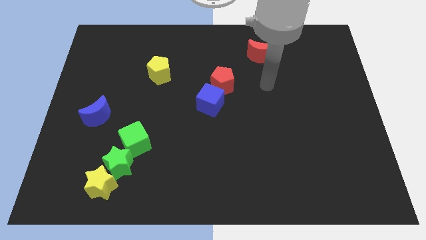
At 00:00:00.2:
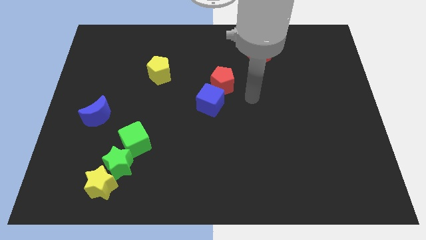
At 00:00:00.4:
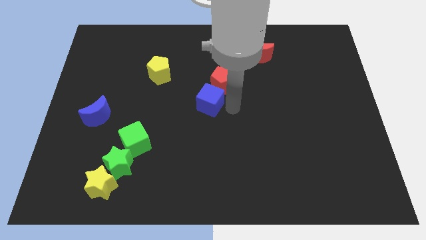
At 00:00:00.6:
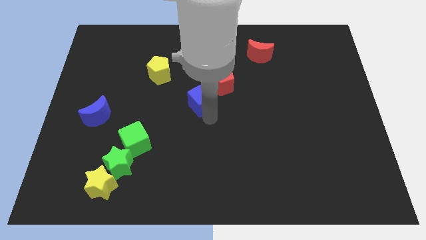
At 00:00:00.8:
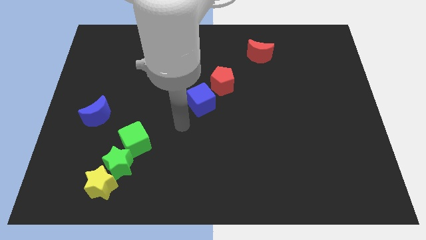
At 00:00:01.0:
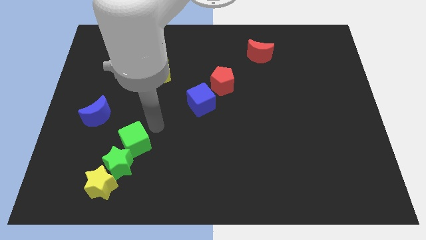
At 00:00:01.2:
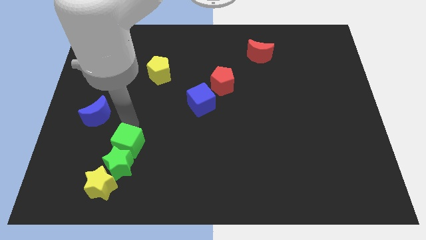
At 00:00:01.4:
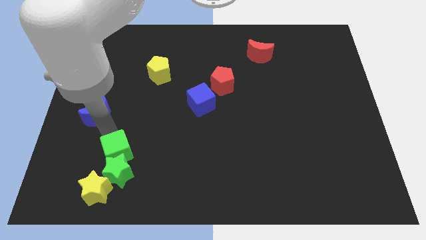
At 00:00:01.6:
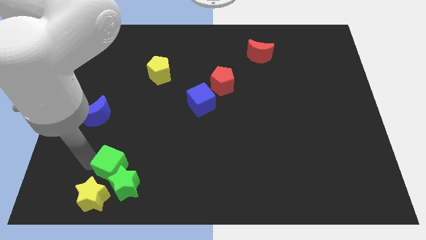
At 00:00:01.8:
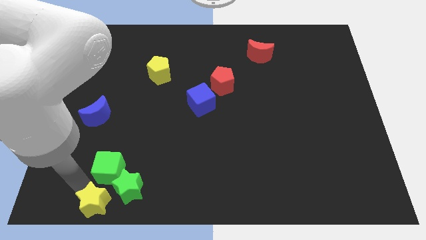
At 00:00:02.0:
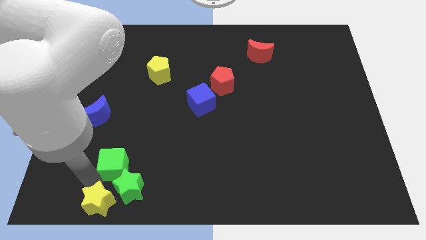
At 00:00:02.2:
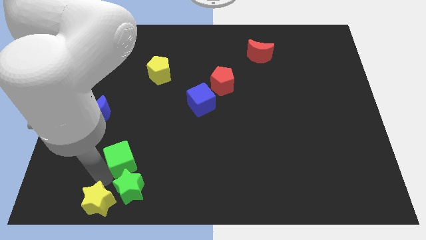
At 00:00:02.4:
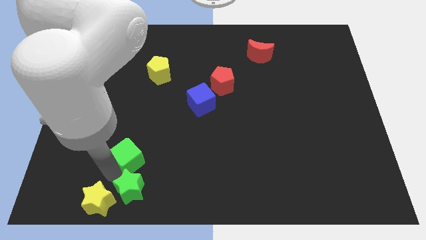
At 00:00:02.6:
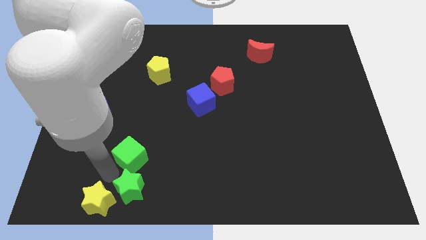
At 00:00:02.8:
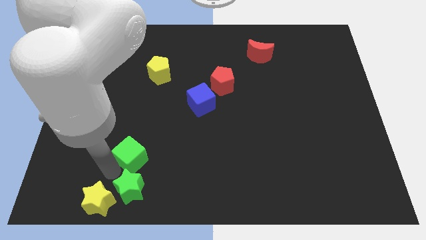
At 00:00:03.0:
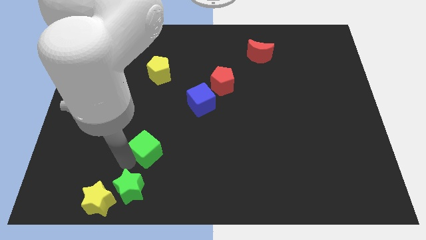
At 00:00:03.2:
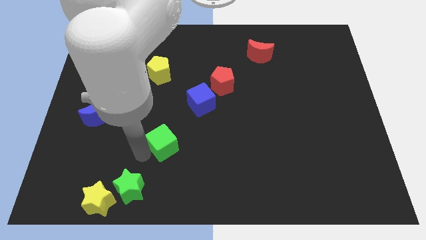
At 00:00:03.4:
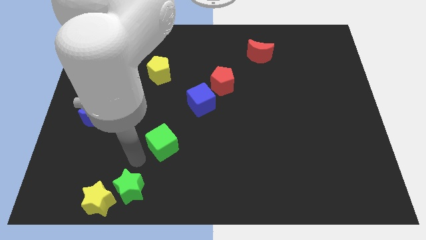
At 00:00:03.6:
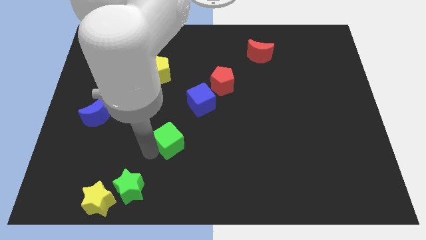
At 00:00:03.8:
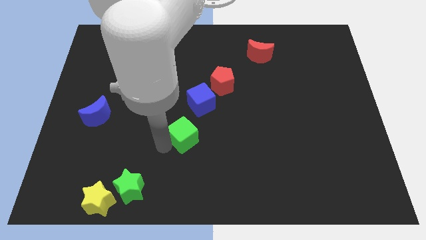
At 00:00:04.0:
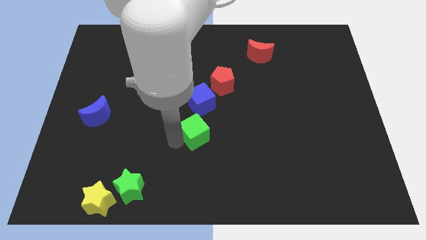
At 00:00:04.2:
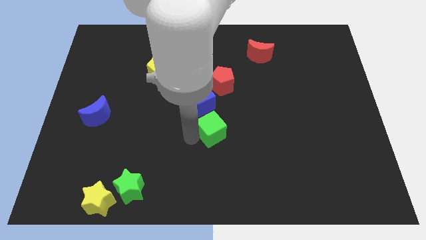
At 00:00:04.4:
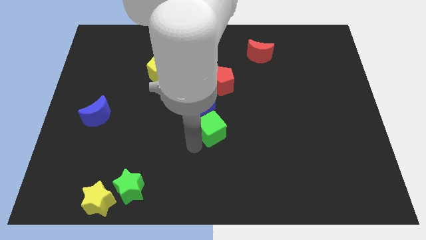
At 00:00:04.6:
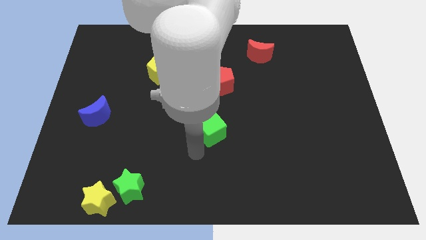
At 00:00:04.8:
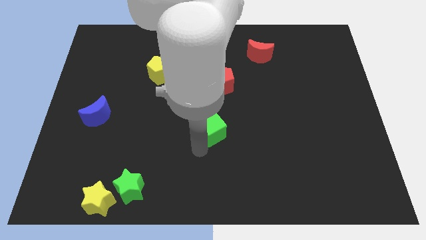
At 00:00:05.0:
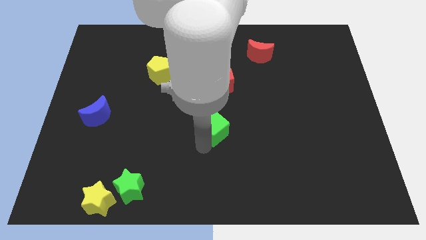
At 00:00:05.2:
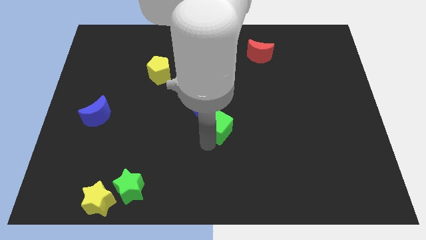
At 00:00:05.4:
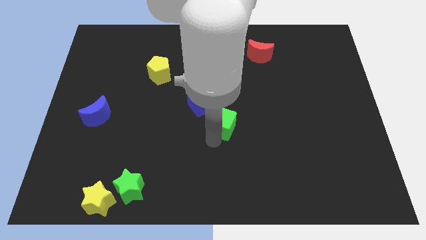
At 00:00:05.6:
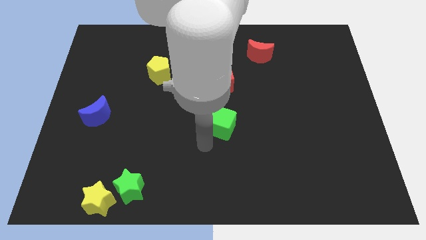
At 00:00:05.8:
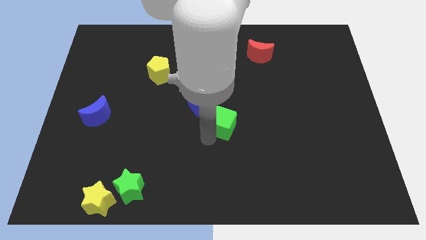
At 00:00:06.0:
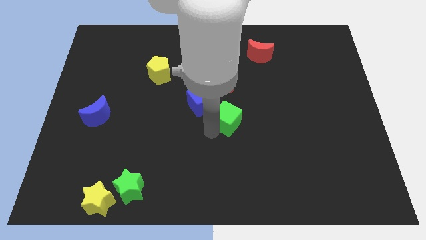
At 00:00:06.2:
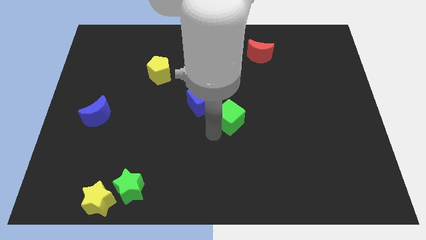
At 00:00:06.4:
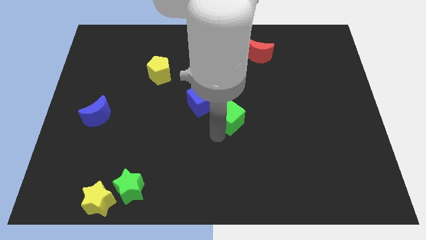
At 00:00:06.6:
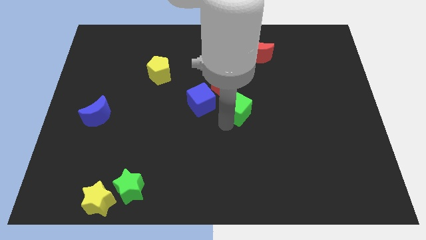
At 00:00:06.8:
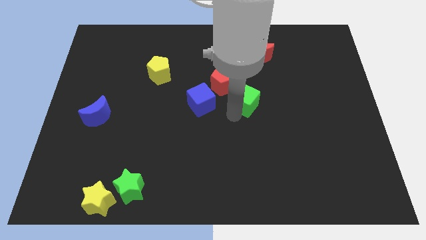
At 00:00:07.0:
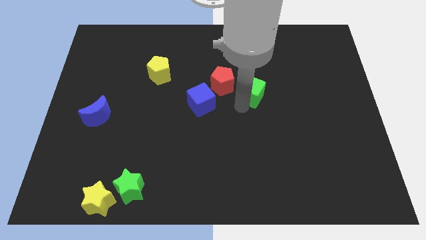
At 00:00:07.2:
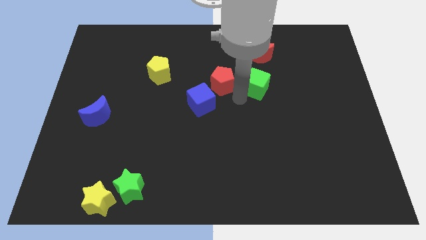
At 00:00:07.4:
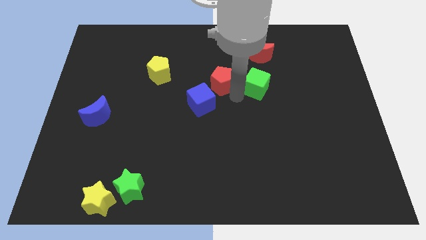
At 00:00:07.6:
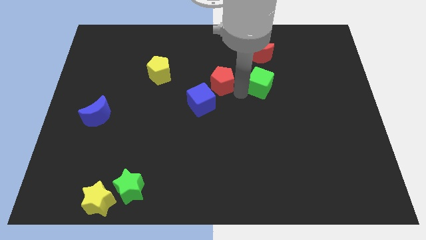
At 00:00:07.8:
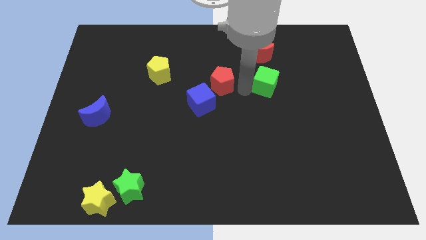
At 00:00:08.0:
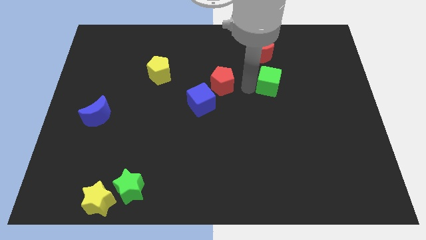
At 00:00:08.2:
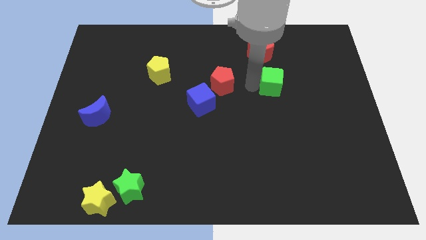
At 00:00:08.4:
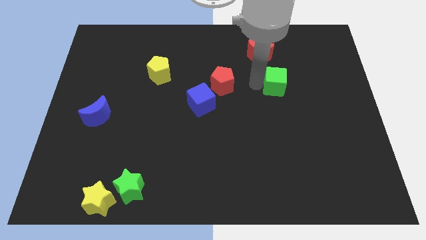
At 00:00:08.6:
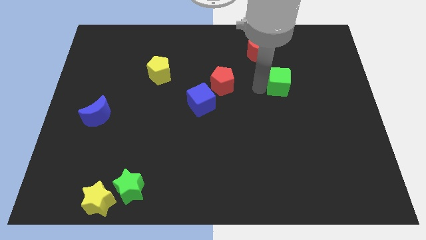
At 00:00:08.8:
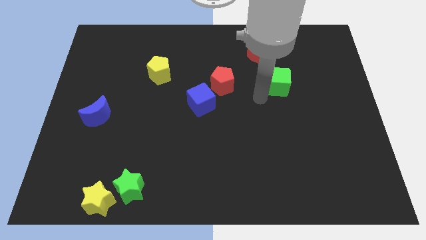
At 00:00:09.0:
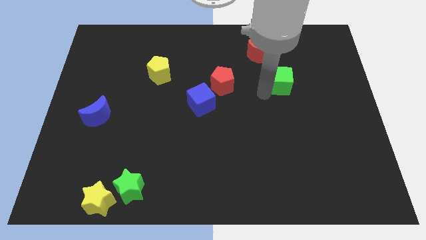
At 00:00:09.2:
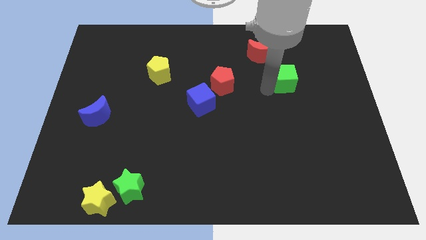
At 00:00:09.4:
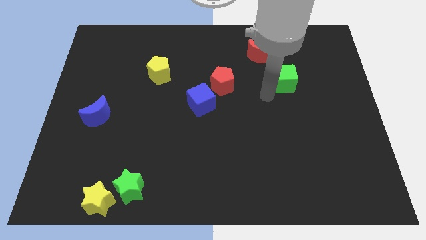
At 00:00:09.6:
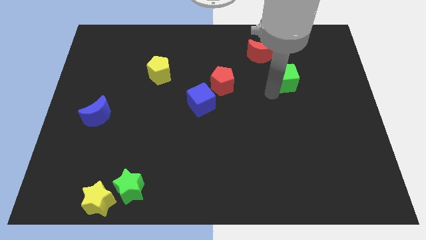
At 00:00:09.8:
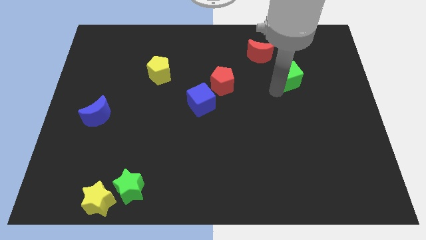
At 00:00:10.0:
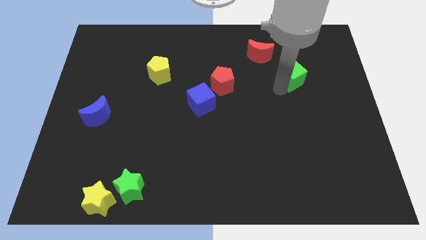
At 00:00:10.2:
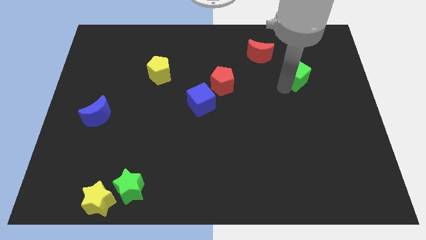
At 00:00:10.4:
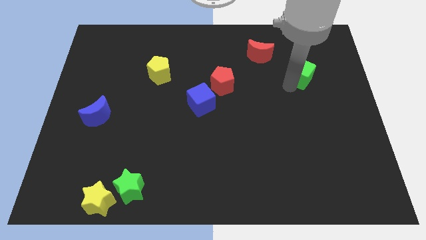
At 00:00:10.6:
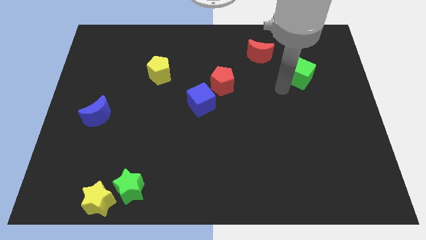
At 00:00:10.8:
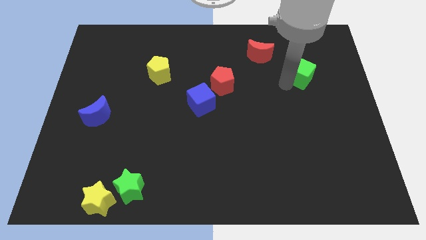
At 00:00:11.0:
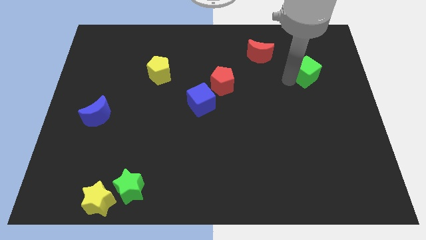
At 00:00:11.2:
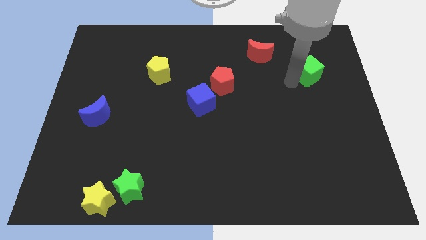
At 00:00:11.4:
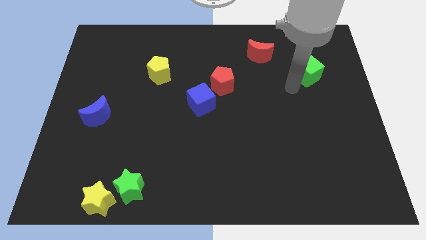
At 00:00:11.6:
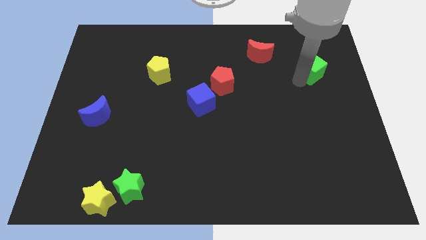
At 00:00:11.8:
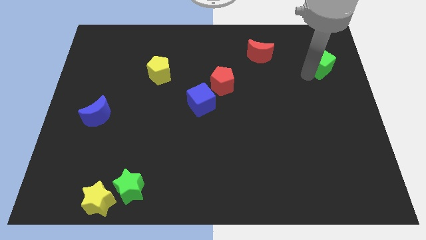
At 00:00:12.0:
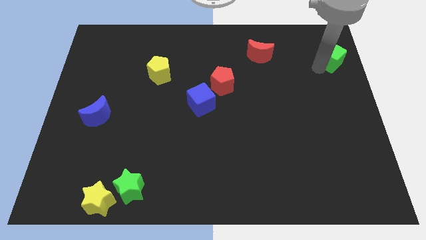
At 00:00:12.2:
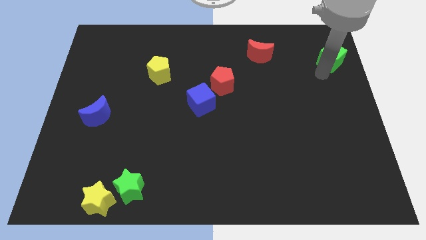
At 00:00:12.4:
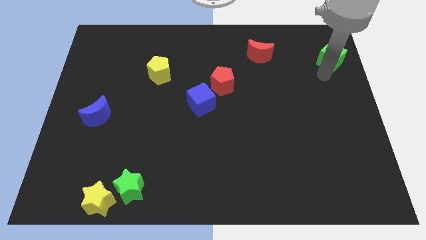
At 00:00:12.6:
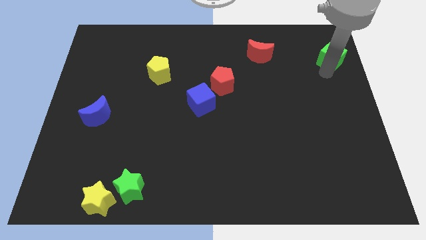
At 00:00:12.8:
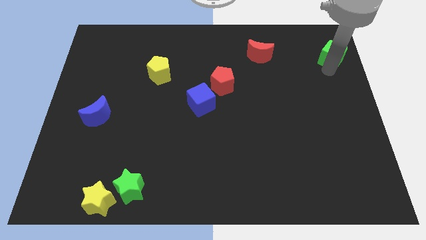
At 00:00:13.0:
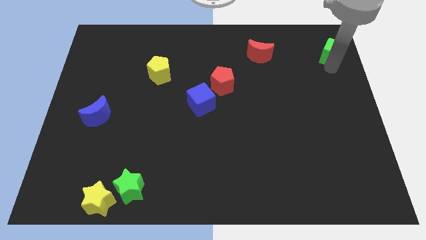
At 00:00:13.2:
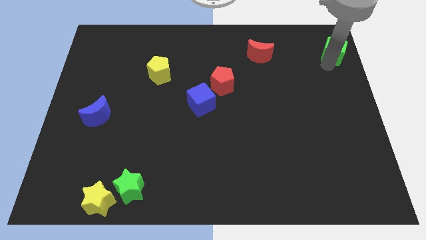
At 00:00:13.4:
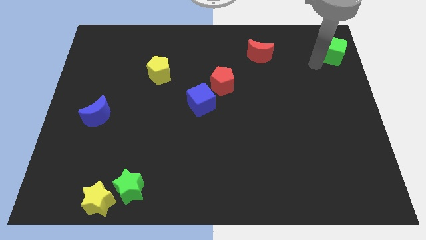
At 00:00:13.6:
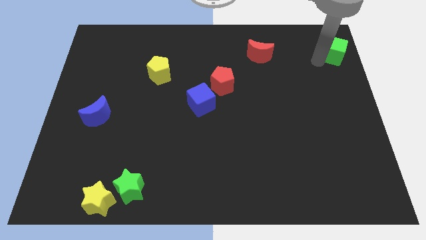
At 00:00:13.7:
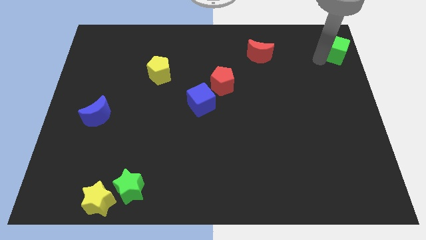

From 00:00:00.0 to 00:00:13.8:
push the green cube to the top right corner
